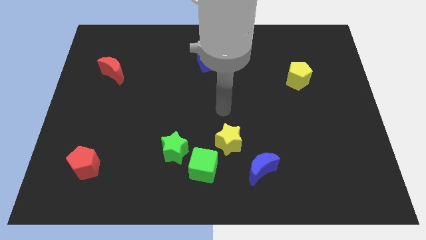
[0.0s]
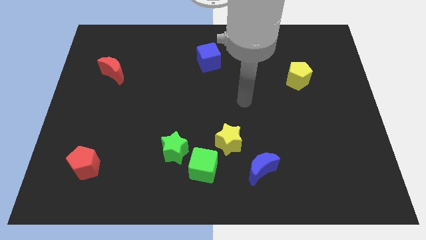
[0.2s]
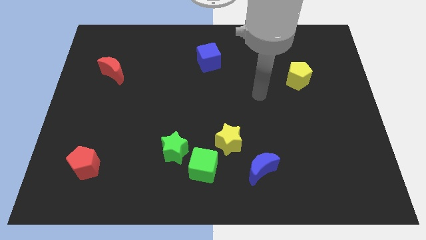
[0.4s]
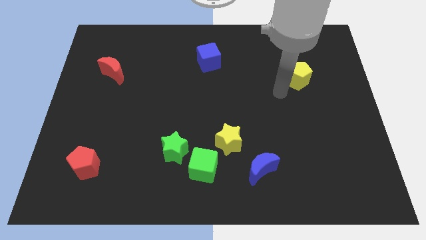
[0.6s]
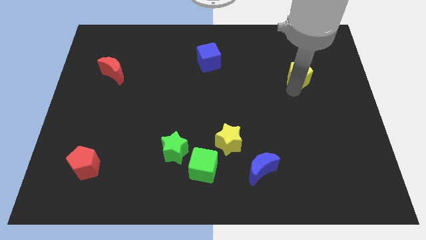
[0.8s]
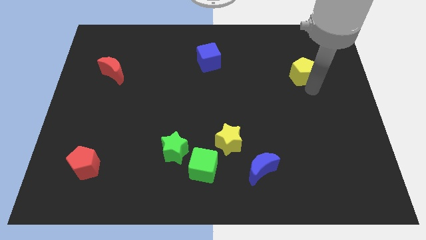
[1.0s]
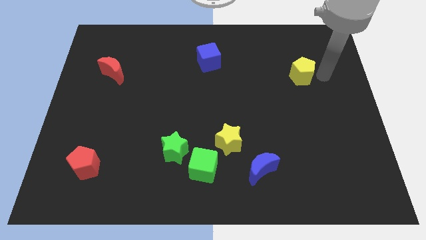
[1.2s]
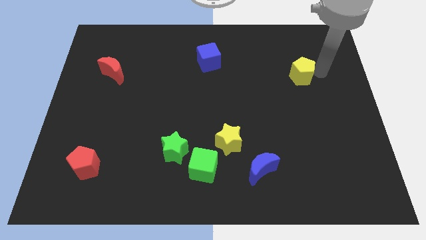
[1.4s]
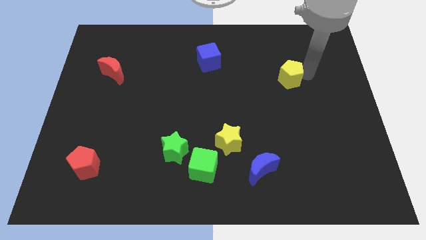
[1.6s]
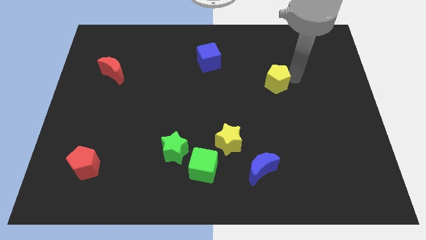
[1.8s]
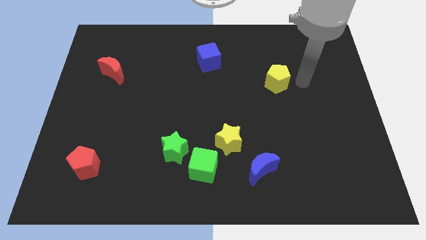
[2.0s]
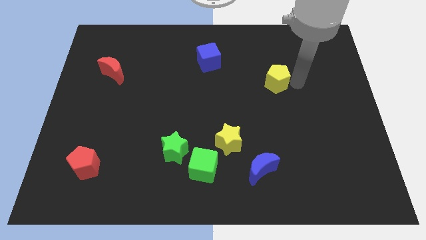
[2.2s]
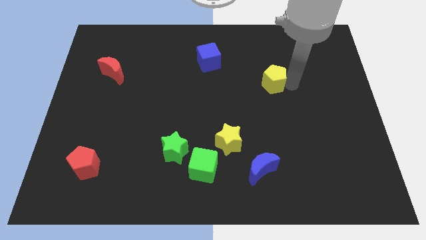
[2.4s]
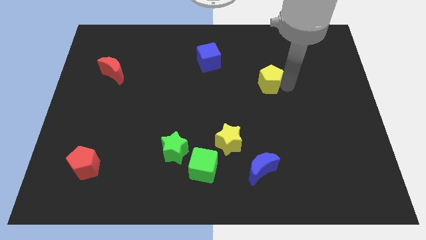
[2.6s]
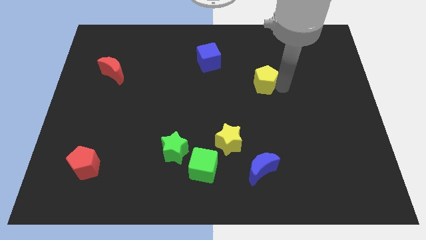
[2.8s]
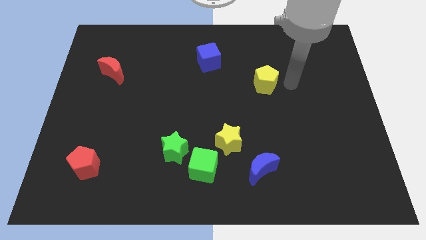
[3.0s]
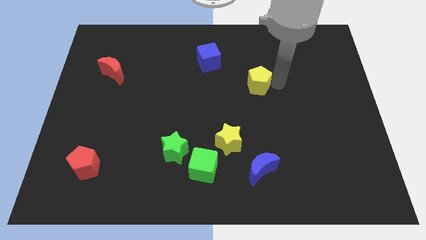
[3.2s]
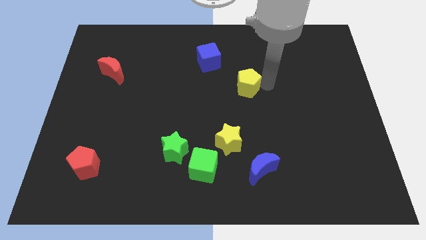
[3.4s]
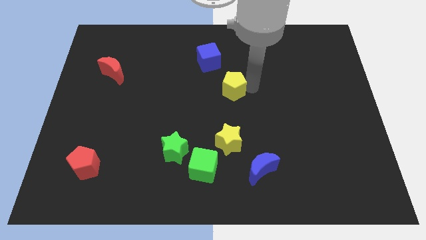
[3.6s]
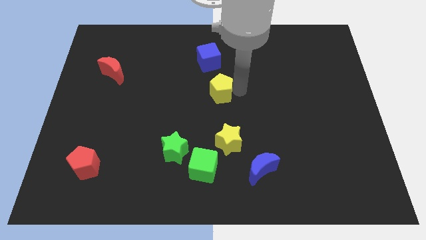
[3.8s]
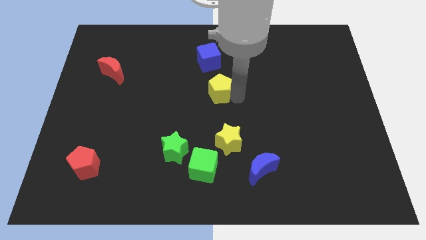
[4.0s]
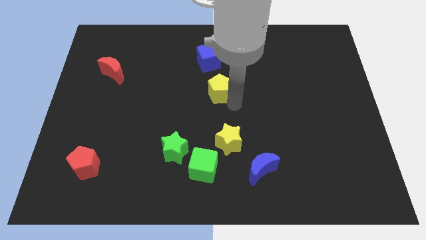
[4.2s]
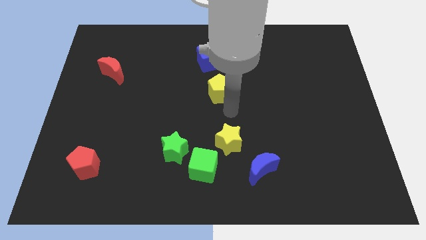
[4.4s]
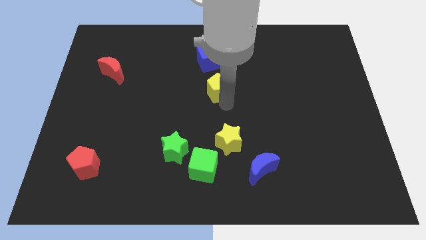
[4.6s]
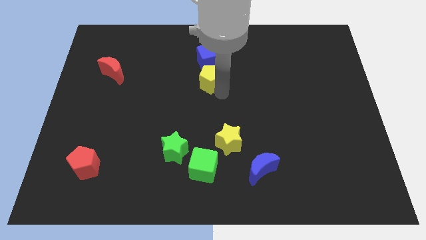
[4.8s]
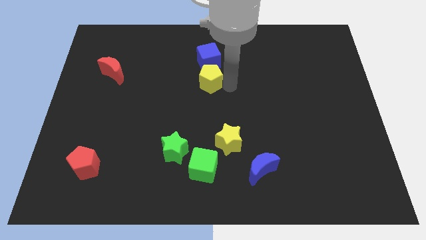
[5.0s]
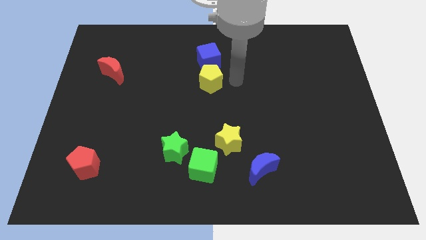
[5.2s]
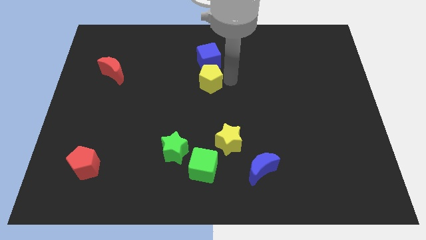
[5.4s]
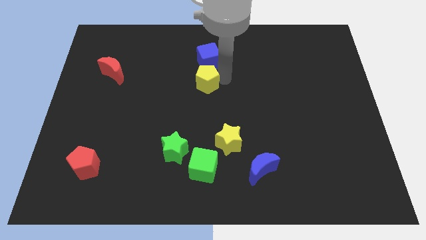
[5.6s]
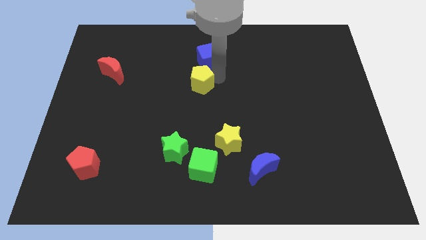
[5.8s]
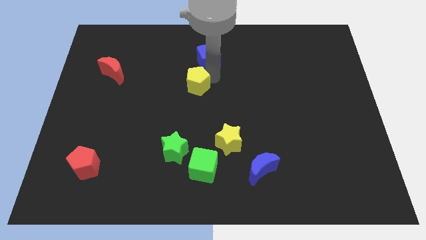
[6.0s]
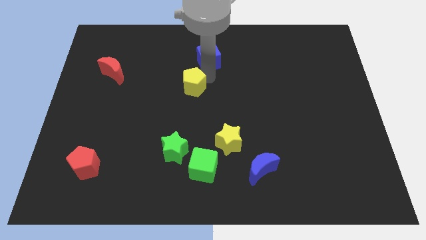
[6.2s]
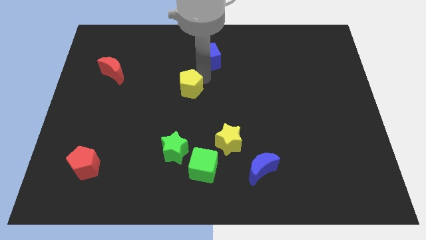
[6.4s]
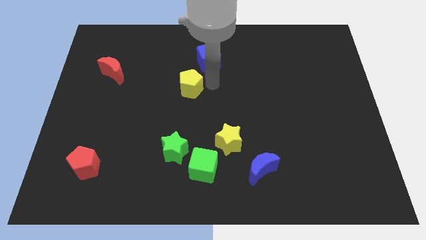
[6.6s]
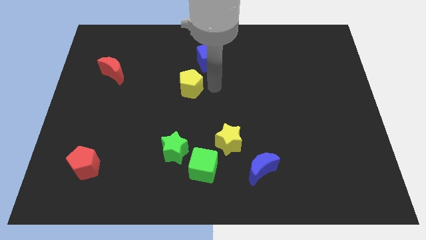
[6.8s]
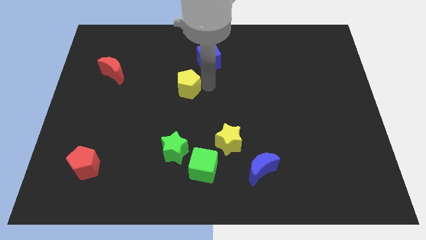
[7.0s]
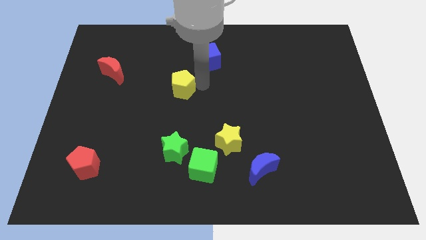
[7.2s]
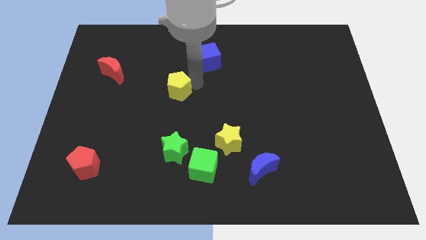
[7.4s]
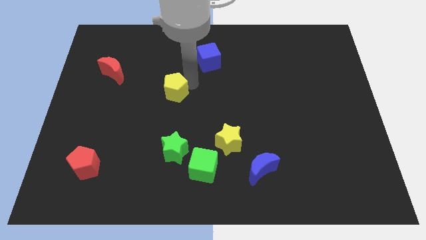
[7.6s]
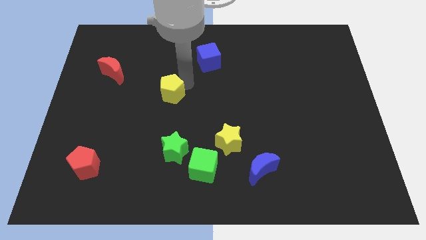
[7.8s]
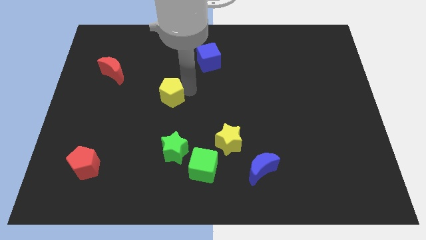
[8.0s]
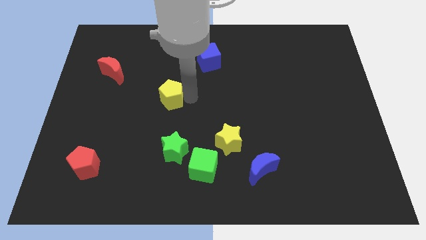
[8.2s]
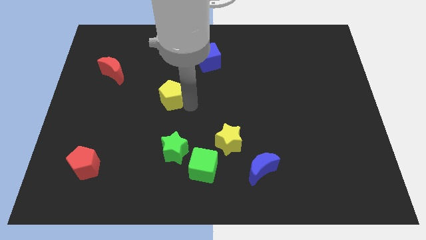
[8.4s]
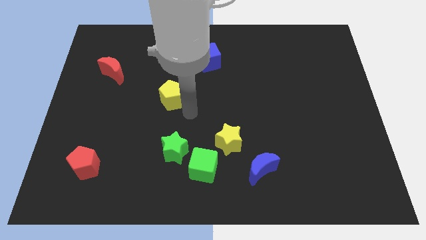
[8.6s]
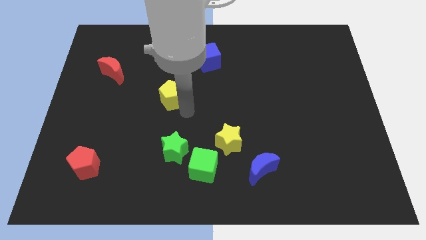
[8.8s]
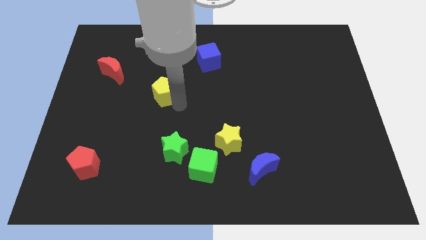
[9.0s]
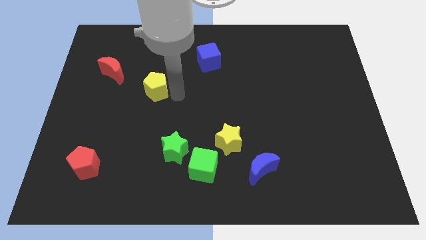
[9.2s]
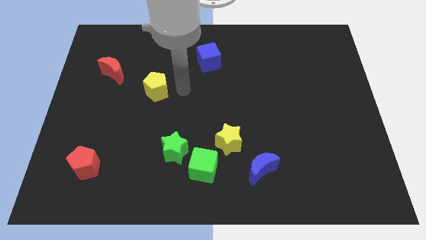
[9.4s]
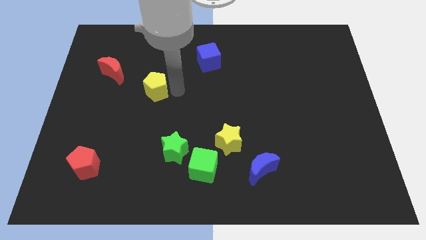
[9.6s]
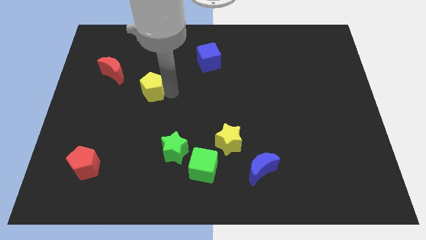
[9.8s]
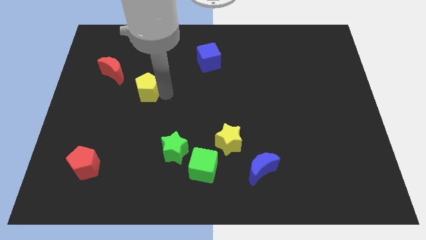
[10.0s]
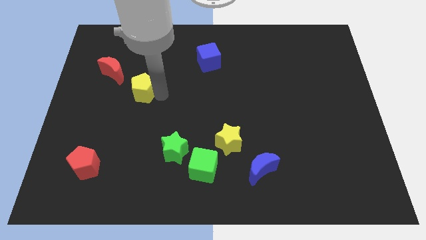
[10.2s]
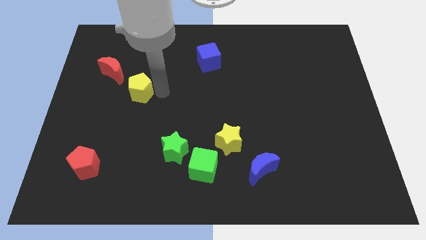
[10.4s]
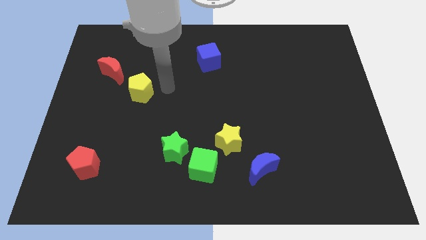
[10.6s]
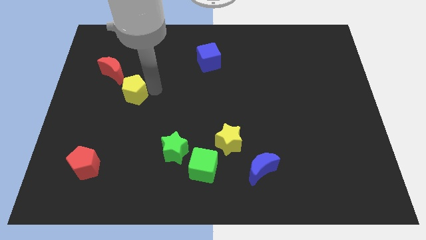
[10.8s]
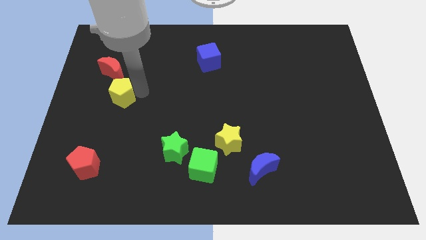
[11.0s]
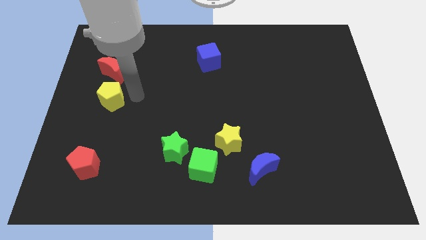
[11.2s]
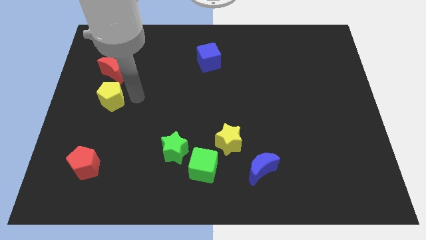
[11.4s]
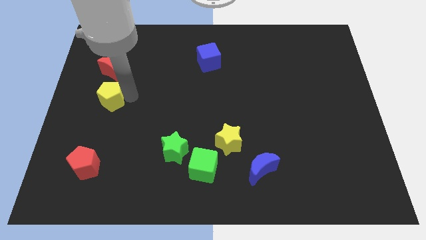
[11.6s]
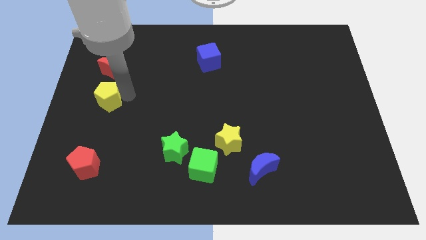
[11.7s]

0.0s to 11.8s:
move the yellow pentagon to the center left

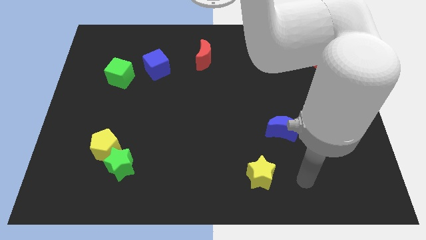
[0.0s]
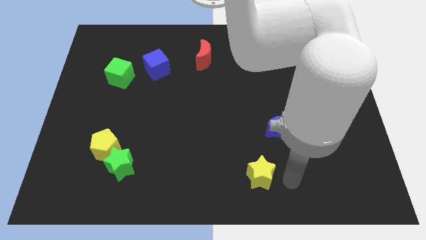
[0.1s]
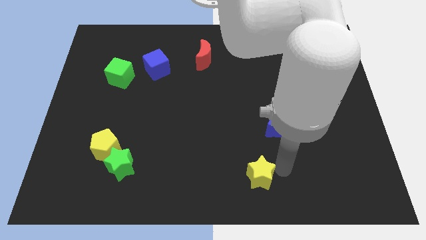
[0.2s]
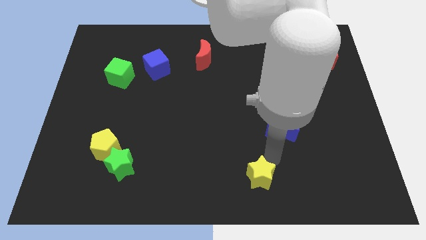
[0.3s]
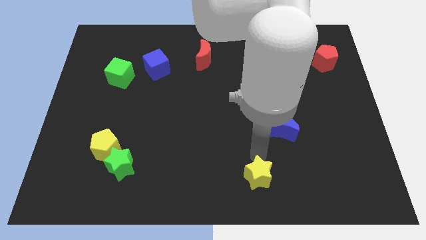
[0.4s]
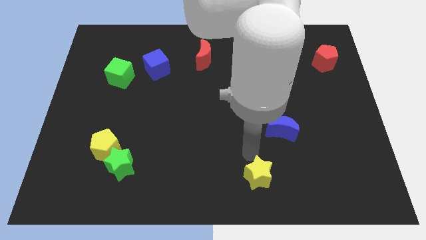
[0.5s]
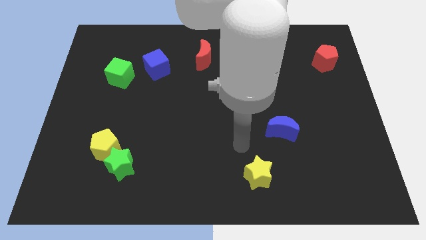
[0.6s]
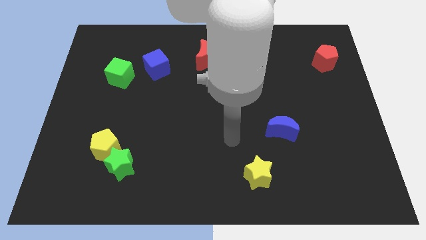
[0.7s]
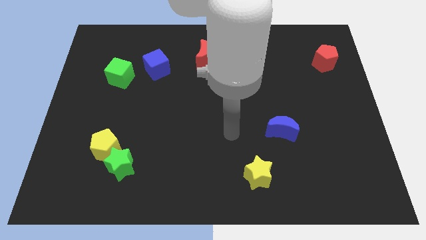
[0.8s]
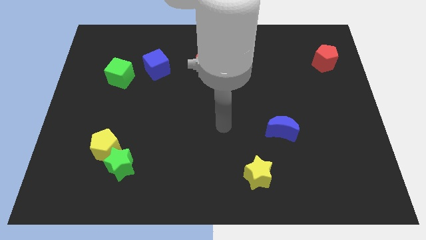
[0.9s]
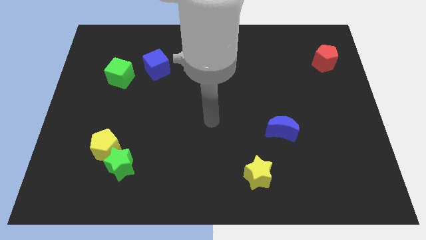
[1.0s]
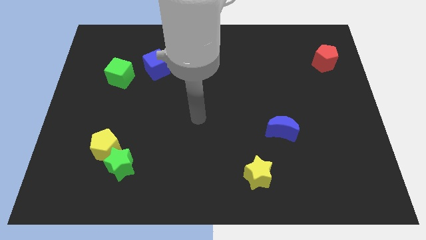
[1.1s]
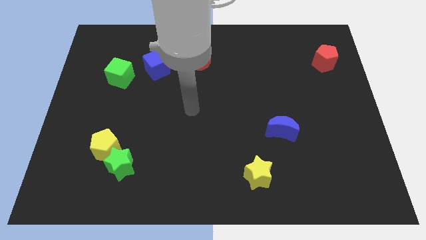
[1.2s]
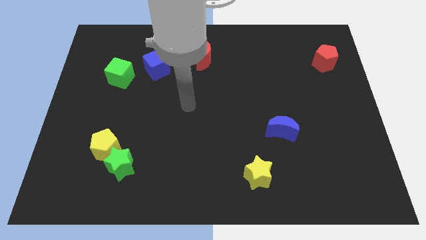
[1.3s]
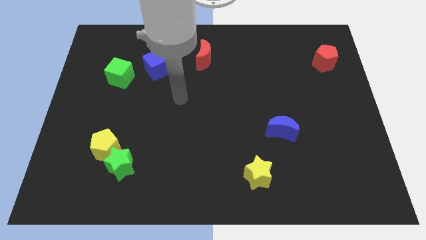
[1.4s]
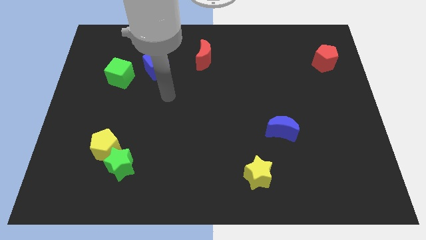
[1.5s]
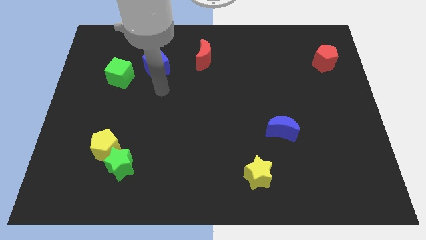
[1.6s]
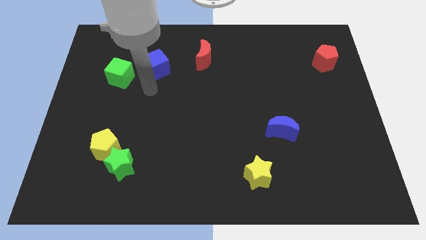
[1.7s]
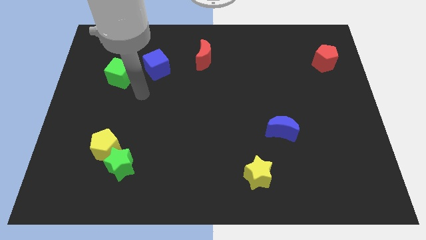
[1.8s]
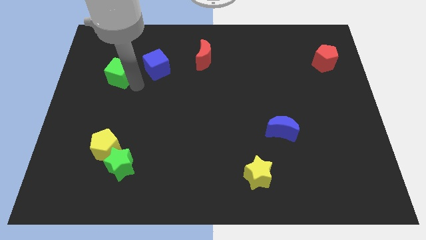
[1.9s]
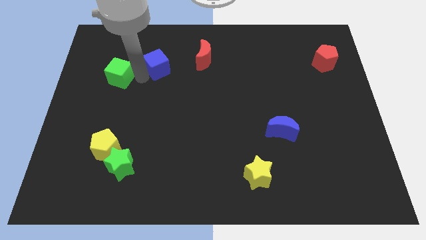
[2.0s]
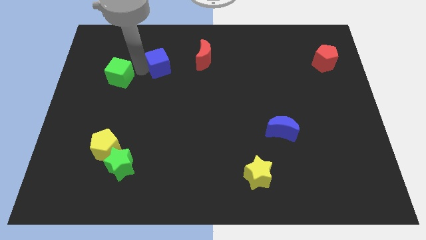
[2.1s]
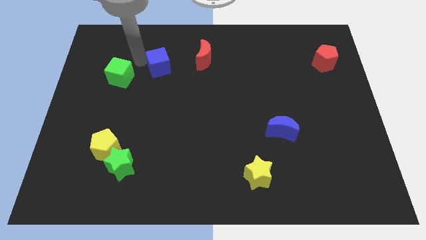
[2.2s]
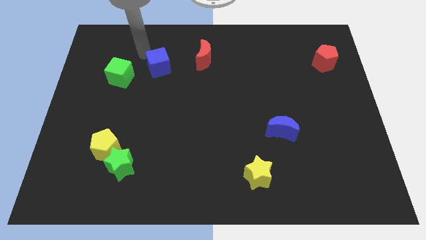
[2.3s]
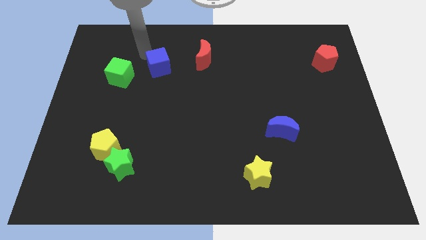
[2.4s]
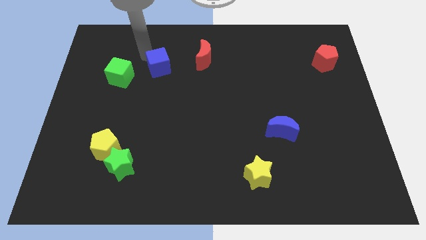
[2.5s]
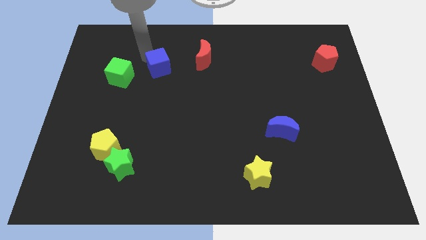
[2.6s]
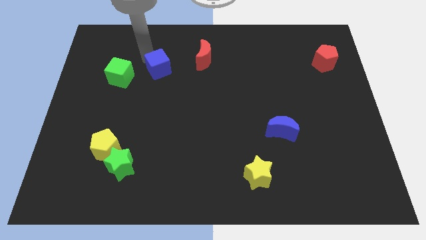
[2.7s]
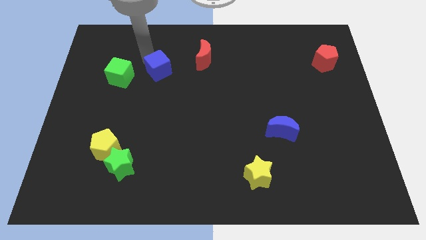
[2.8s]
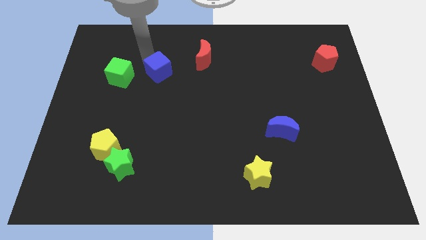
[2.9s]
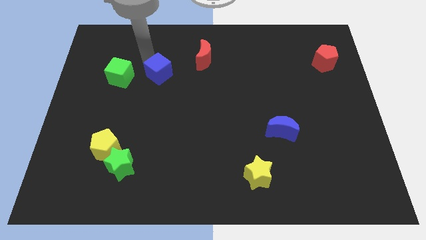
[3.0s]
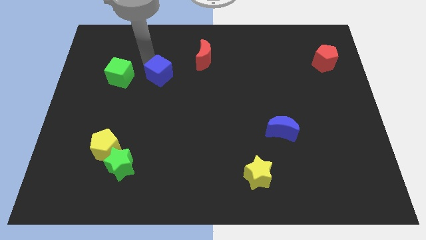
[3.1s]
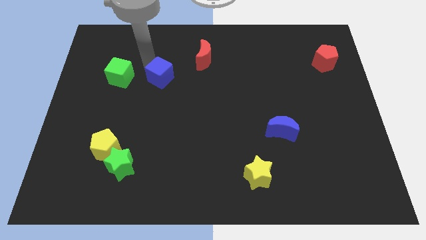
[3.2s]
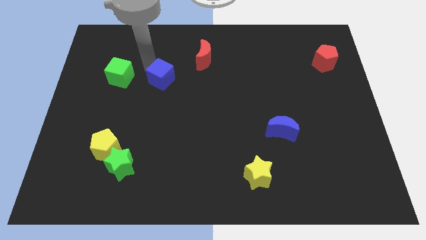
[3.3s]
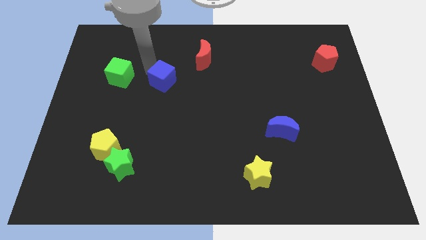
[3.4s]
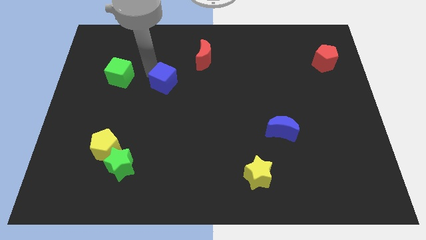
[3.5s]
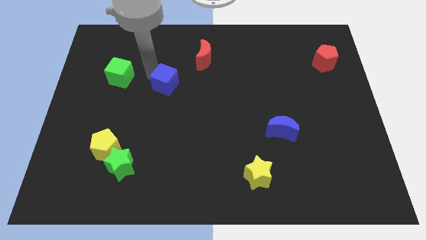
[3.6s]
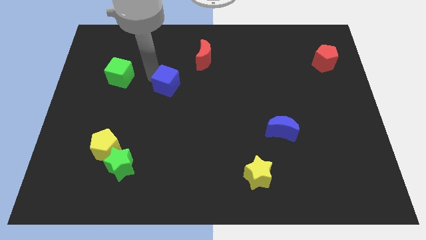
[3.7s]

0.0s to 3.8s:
move the blue cube to the center
